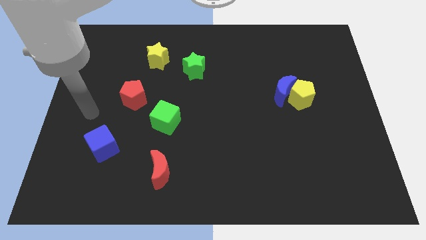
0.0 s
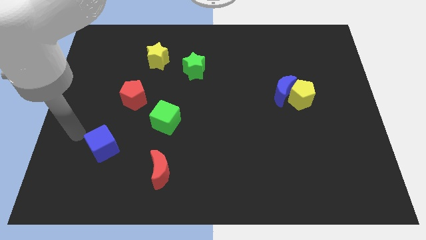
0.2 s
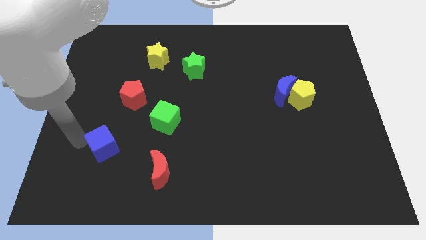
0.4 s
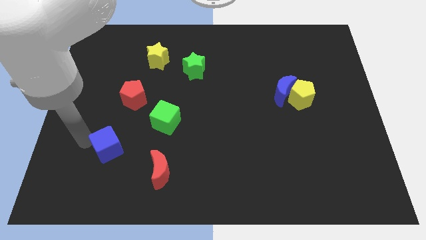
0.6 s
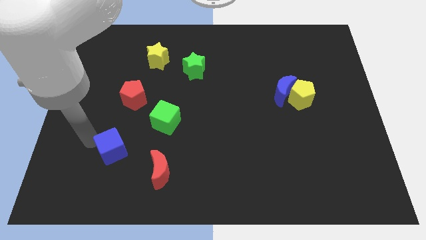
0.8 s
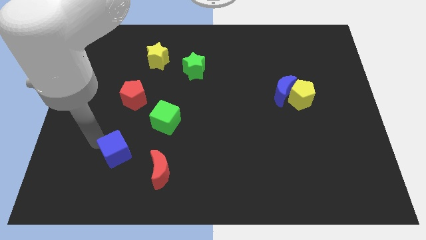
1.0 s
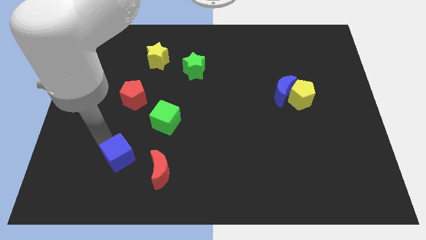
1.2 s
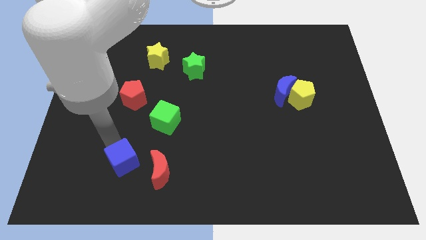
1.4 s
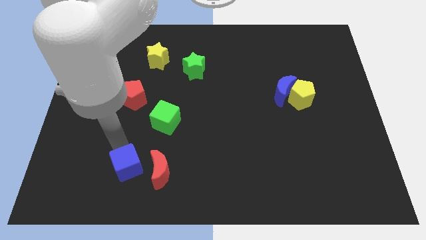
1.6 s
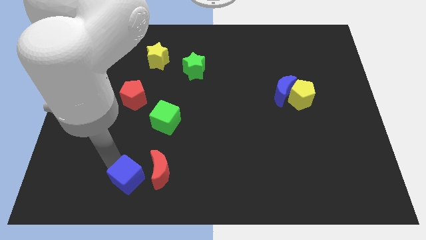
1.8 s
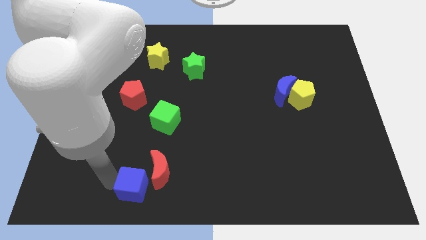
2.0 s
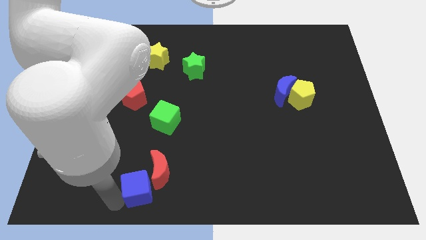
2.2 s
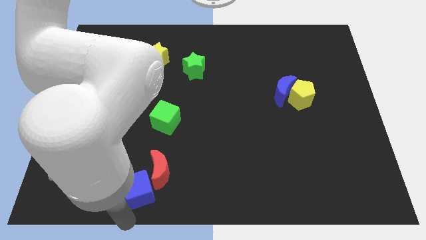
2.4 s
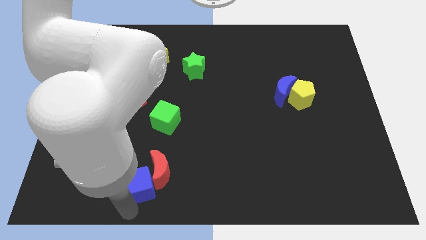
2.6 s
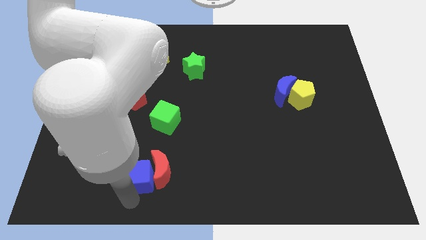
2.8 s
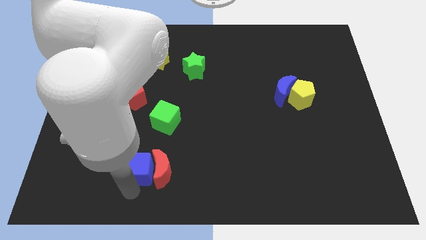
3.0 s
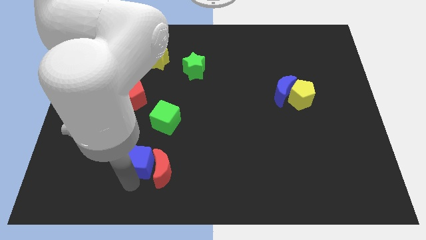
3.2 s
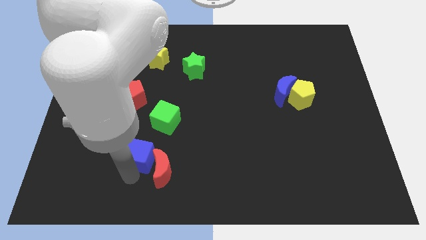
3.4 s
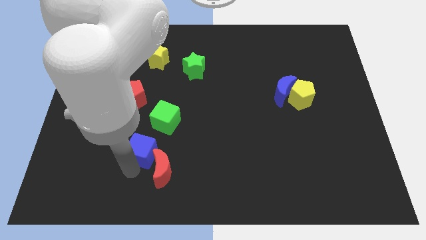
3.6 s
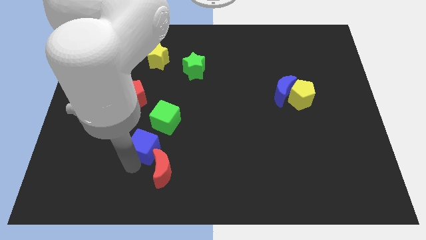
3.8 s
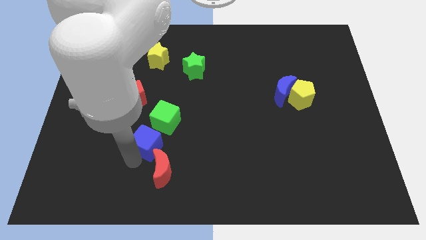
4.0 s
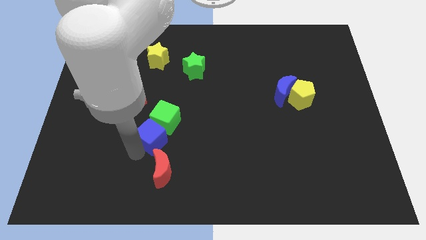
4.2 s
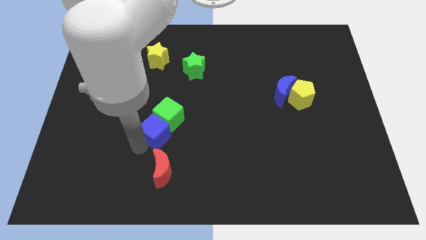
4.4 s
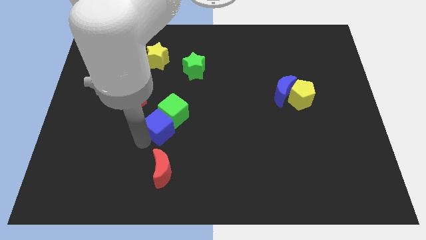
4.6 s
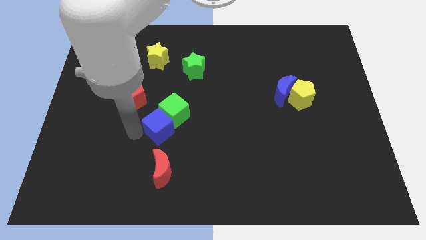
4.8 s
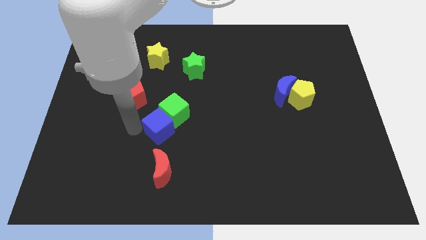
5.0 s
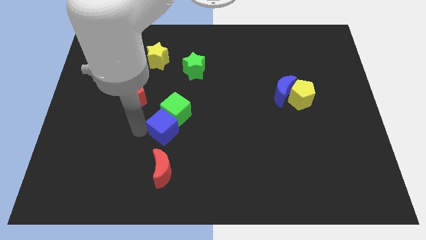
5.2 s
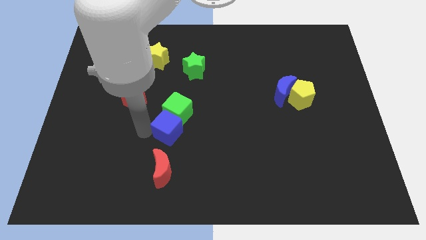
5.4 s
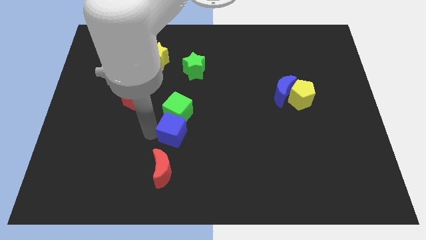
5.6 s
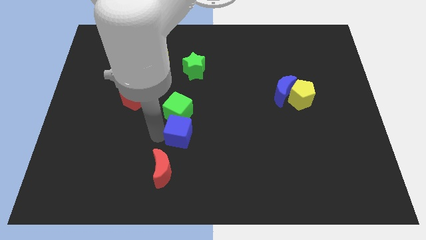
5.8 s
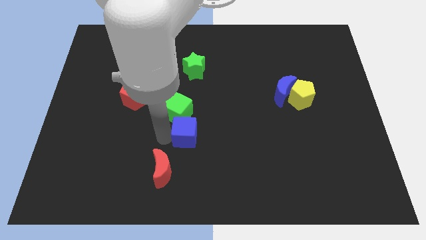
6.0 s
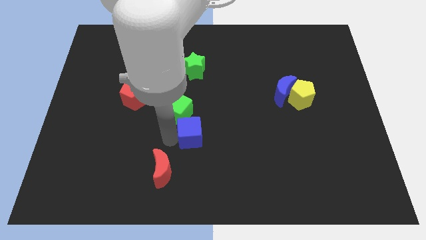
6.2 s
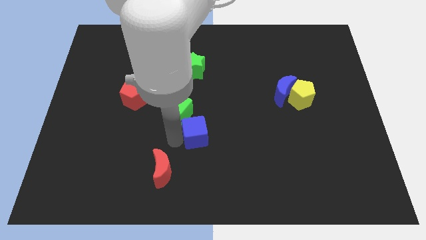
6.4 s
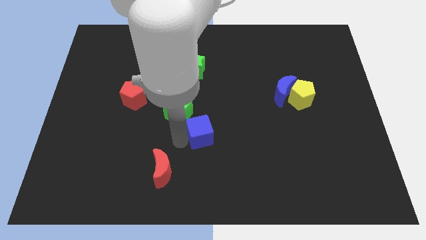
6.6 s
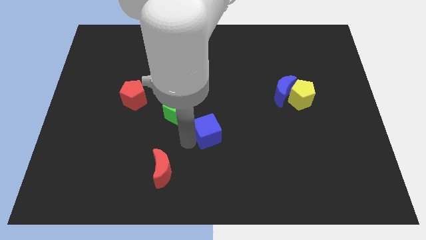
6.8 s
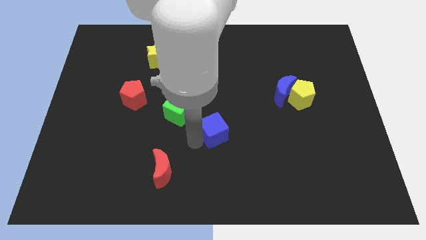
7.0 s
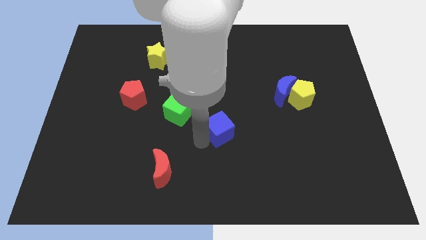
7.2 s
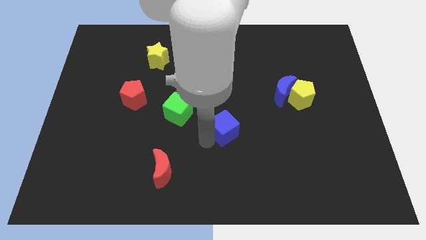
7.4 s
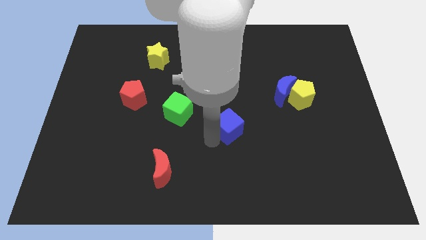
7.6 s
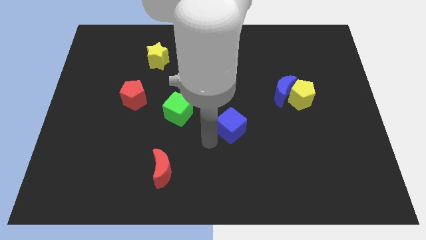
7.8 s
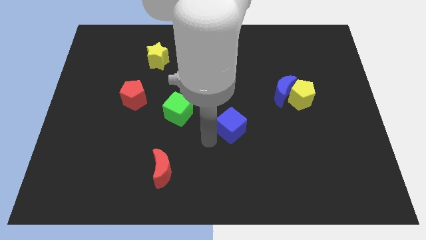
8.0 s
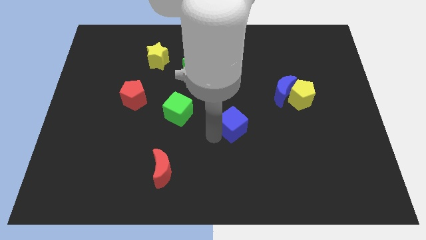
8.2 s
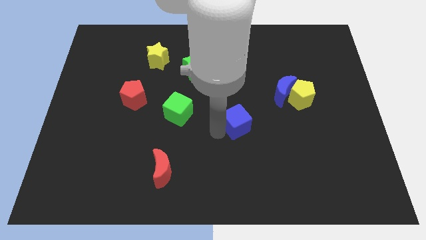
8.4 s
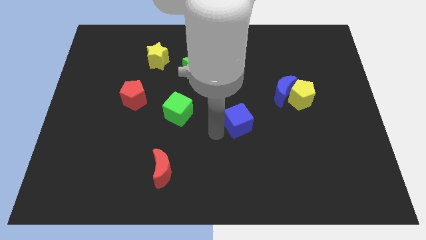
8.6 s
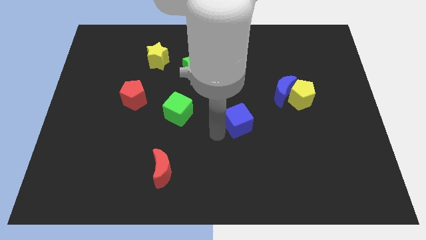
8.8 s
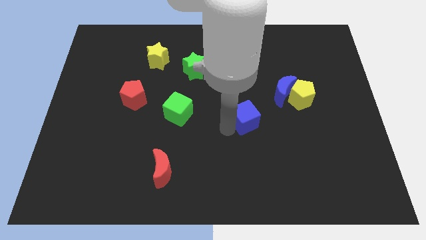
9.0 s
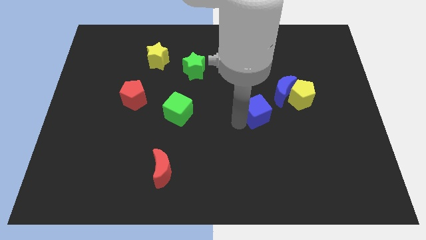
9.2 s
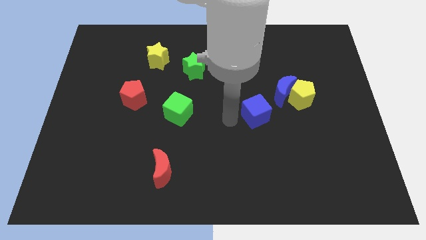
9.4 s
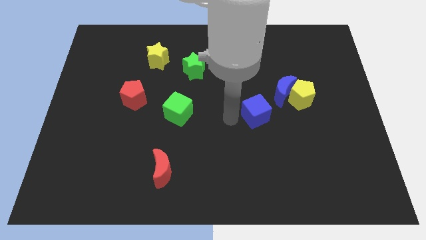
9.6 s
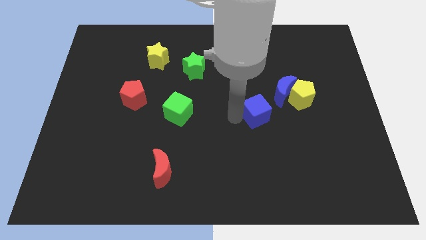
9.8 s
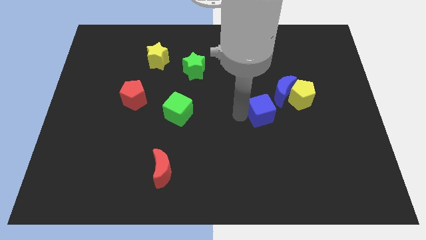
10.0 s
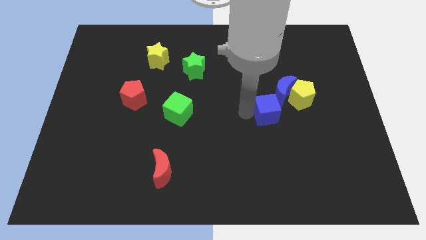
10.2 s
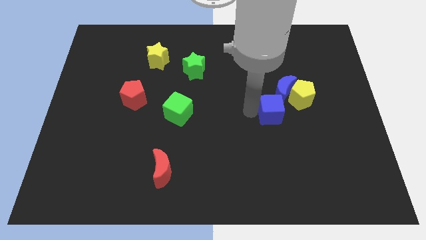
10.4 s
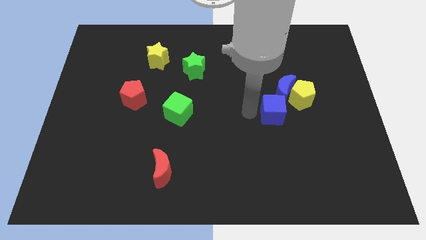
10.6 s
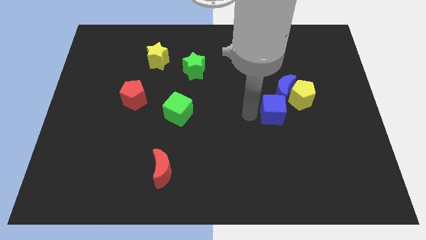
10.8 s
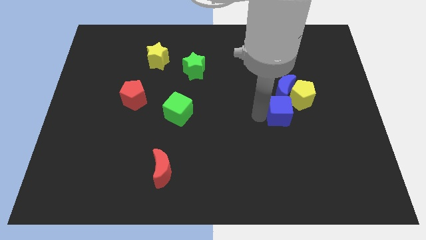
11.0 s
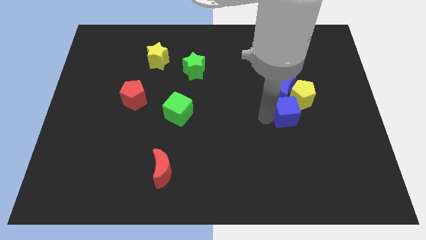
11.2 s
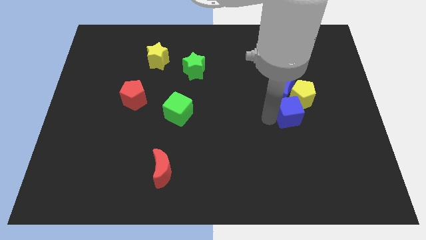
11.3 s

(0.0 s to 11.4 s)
move the blue cube next to the yellow pentagon

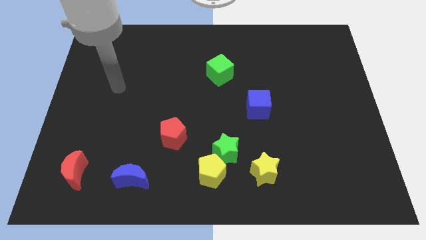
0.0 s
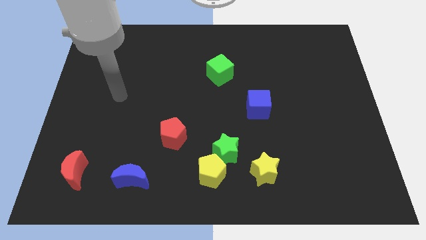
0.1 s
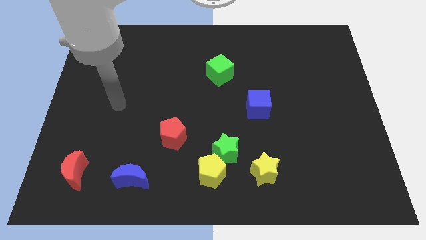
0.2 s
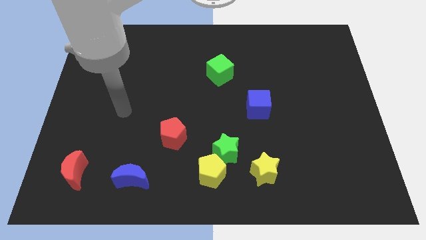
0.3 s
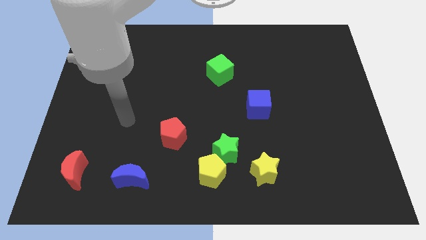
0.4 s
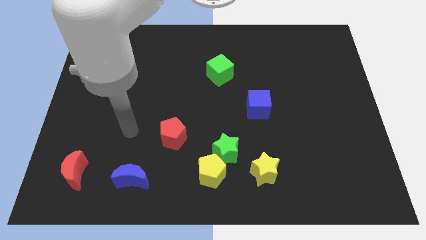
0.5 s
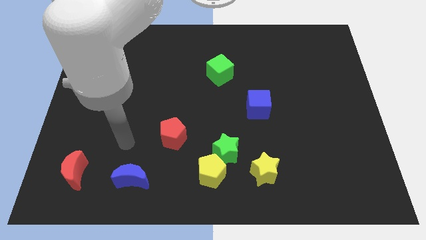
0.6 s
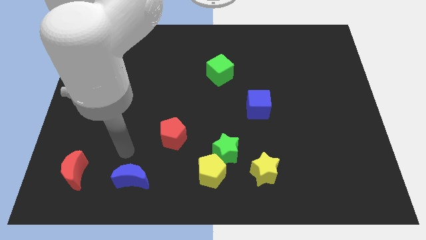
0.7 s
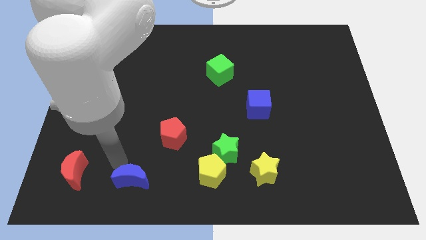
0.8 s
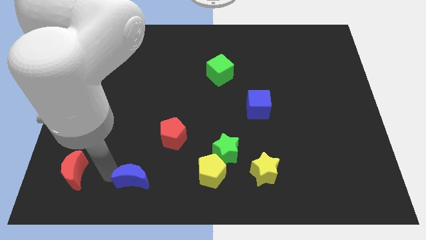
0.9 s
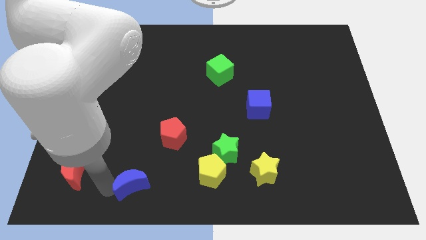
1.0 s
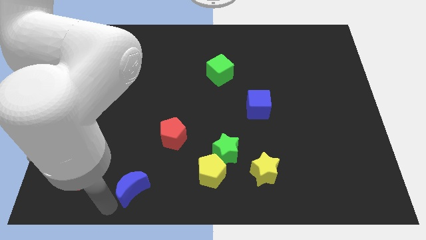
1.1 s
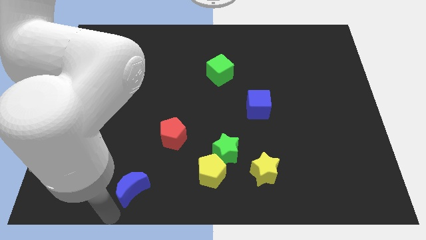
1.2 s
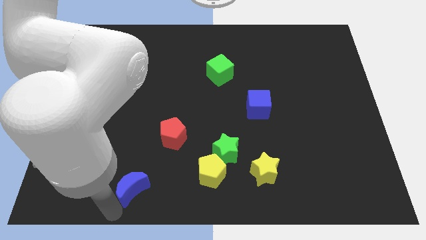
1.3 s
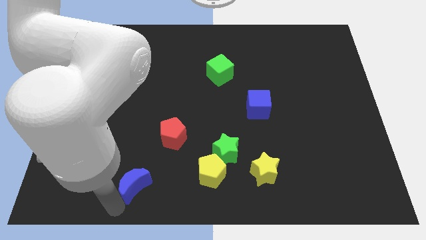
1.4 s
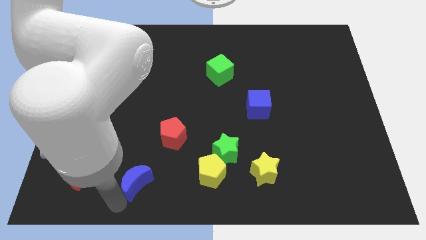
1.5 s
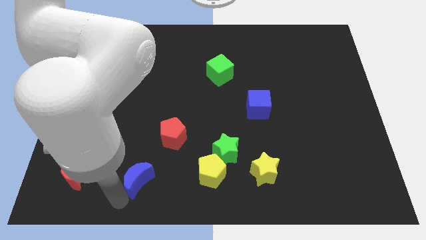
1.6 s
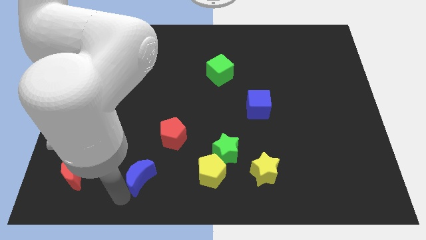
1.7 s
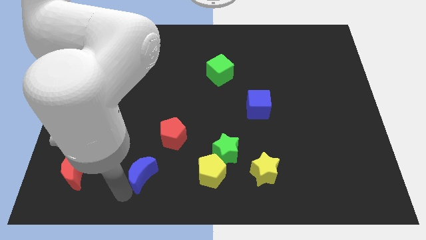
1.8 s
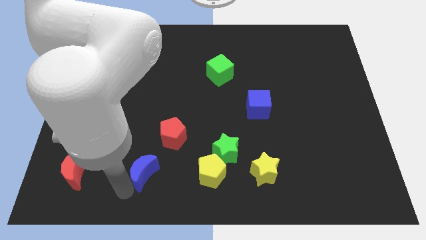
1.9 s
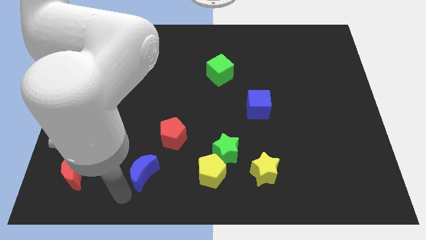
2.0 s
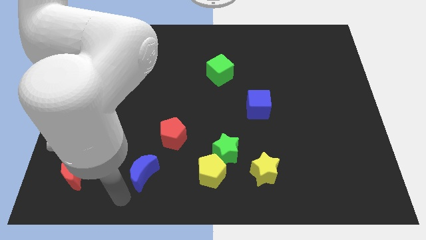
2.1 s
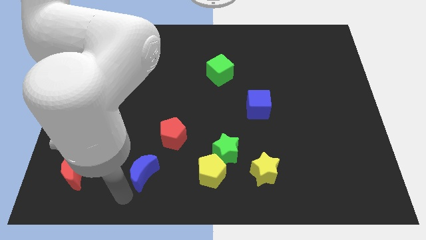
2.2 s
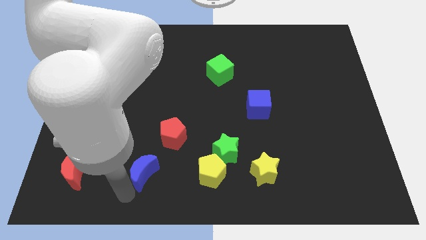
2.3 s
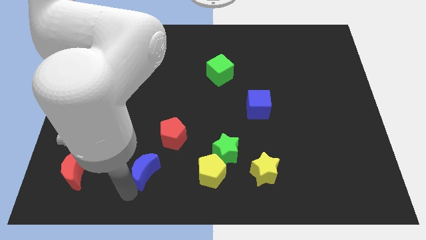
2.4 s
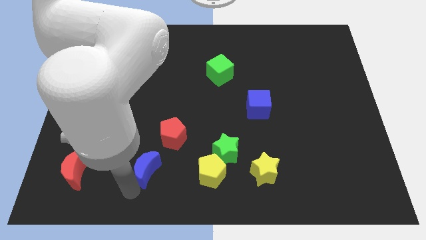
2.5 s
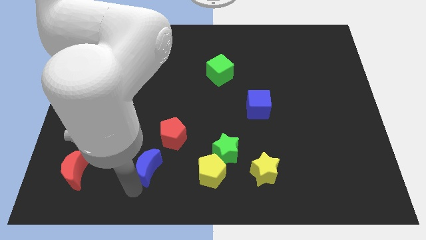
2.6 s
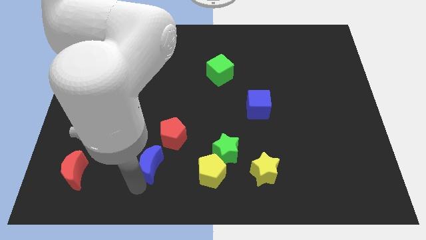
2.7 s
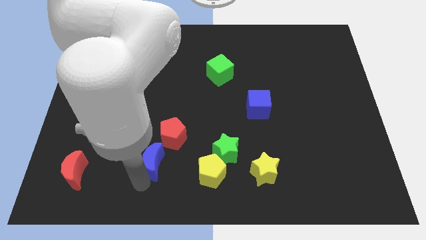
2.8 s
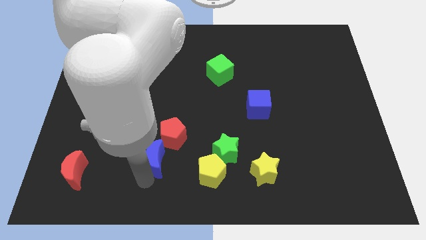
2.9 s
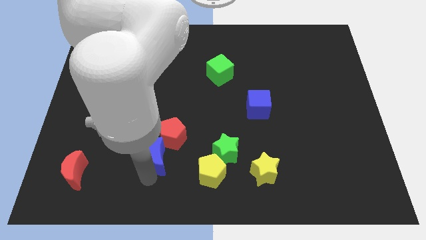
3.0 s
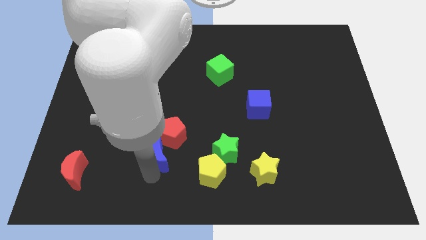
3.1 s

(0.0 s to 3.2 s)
move the blue moon close to the red pentagon
